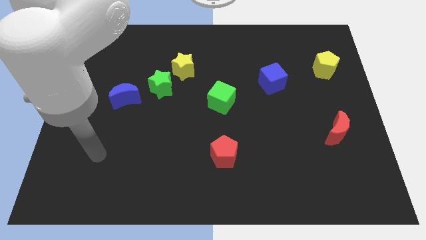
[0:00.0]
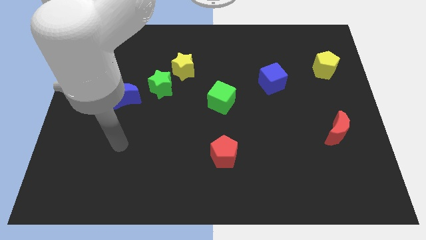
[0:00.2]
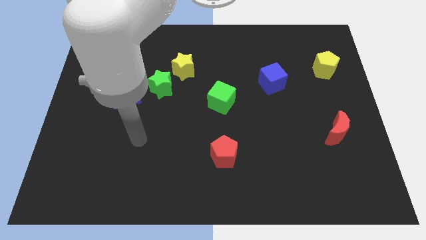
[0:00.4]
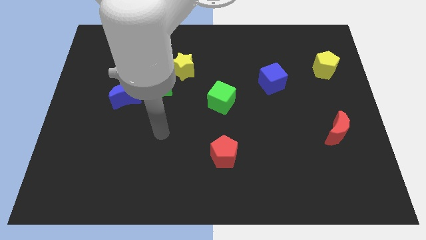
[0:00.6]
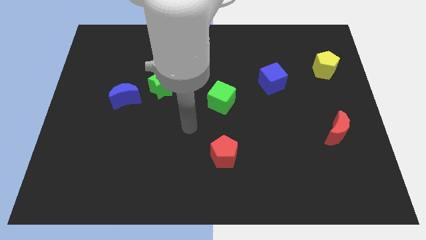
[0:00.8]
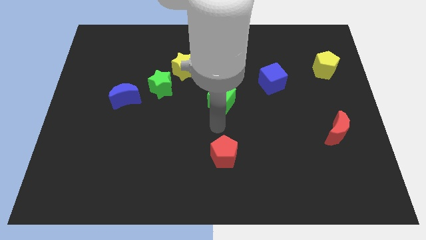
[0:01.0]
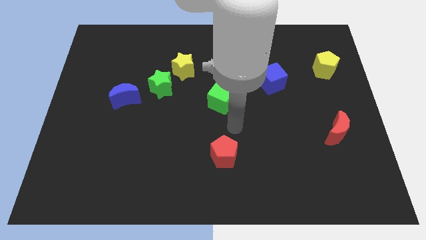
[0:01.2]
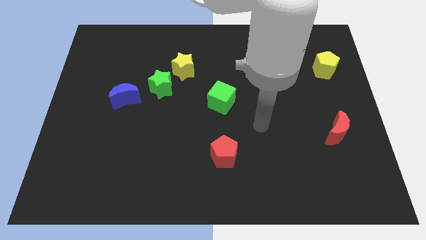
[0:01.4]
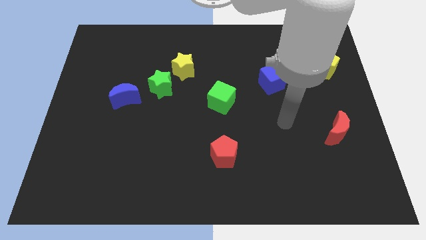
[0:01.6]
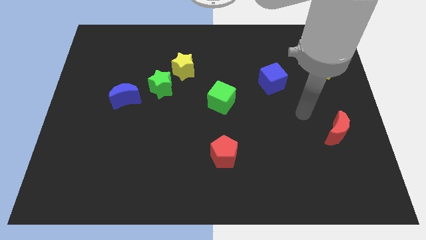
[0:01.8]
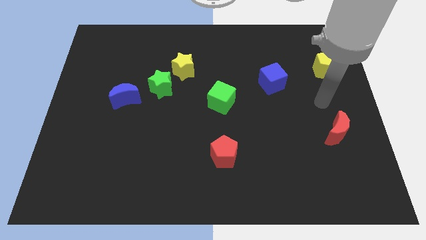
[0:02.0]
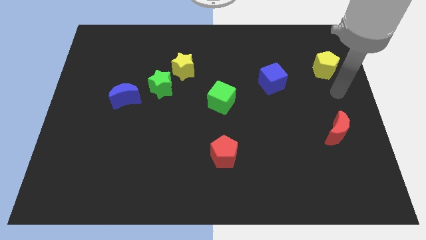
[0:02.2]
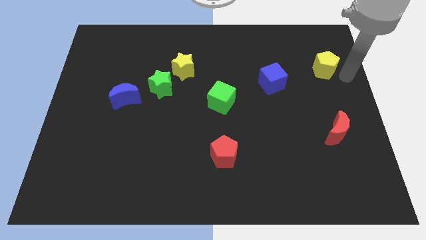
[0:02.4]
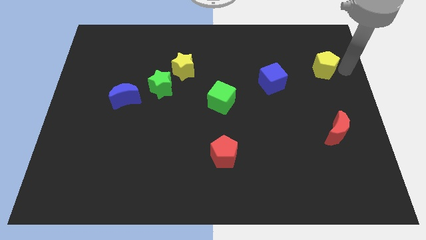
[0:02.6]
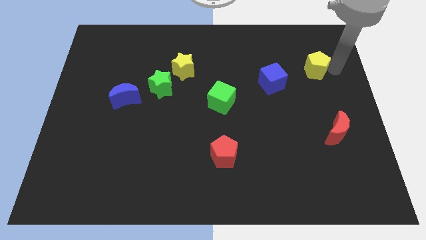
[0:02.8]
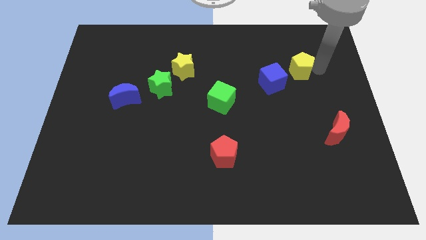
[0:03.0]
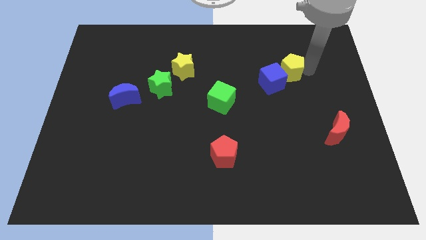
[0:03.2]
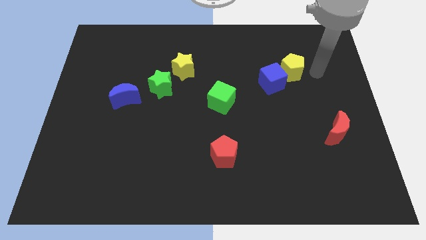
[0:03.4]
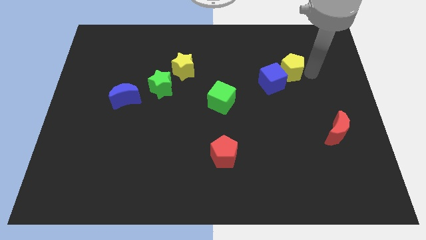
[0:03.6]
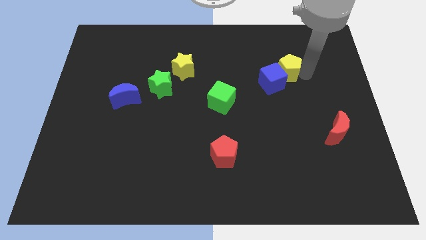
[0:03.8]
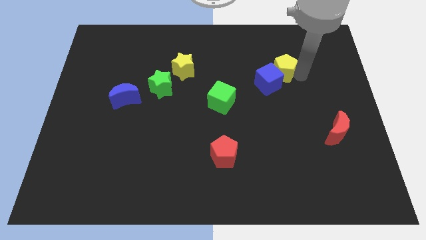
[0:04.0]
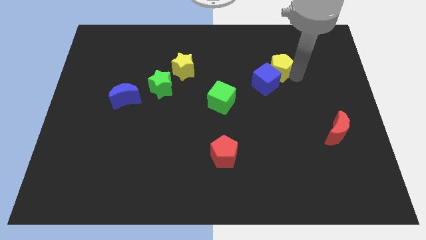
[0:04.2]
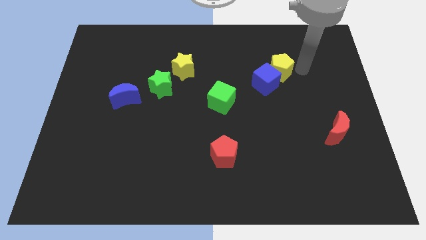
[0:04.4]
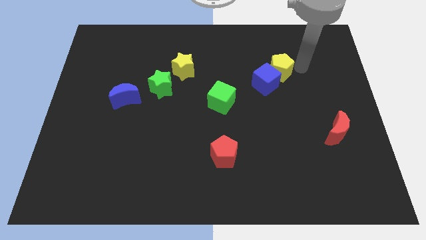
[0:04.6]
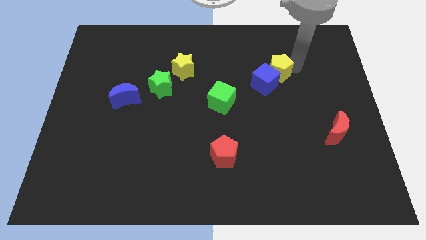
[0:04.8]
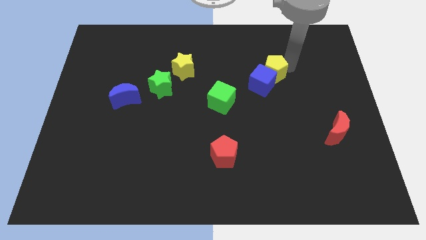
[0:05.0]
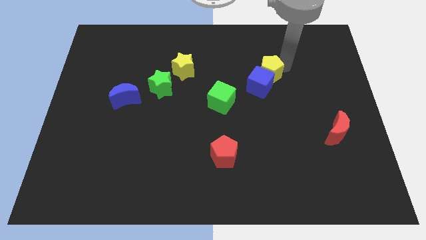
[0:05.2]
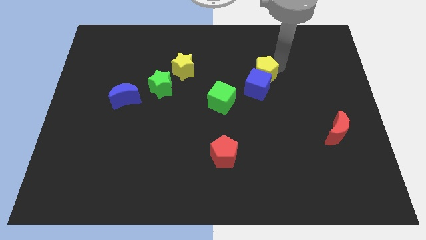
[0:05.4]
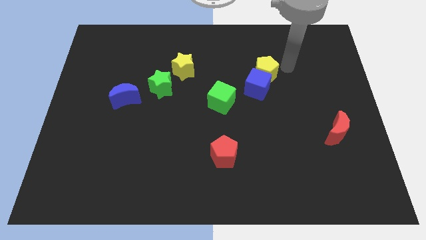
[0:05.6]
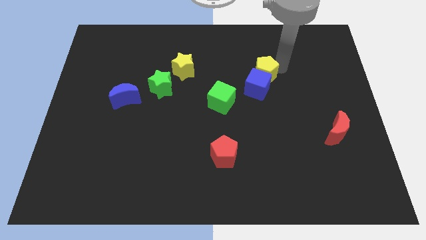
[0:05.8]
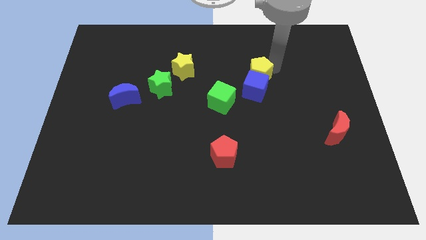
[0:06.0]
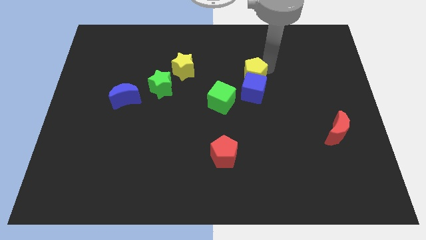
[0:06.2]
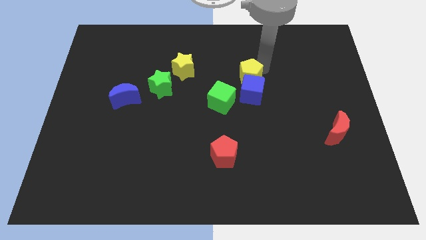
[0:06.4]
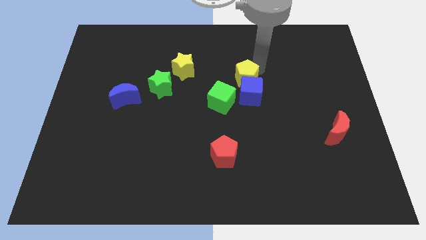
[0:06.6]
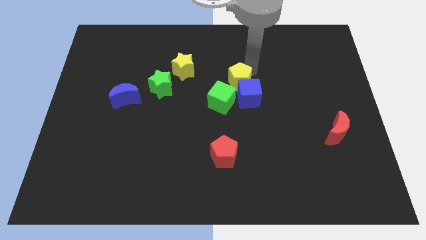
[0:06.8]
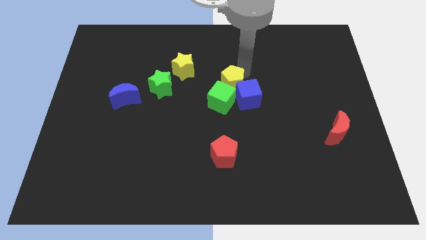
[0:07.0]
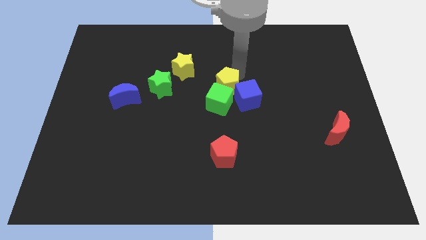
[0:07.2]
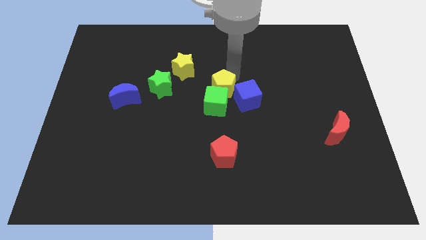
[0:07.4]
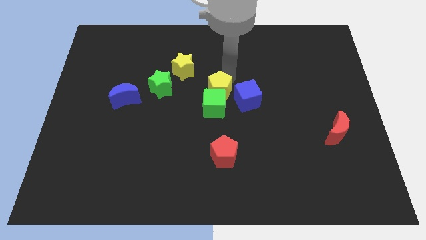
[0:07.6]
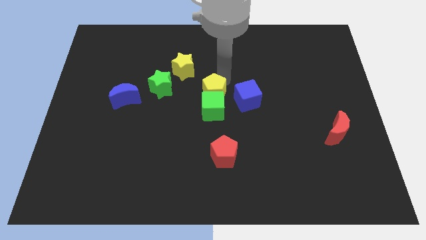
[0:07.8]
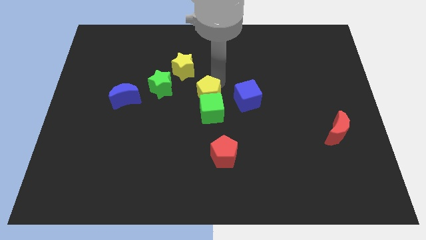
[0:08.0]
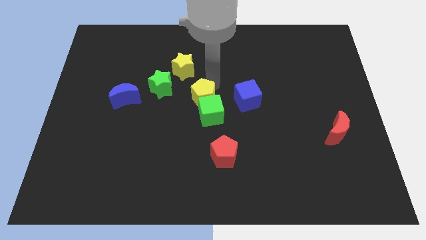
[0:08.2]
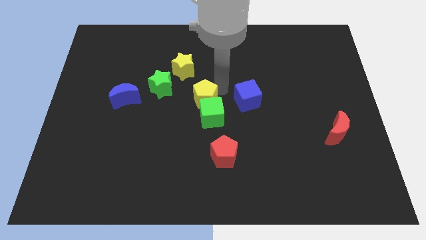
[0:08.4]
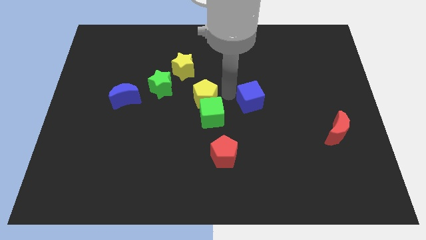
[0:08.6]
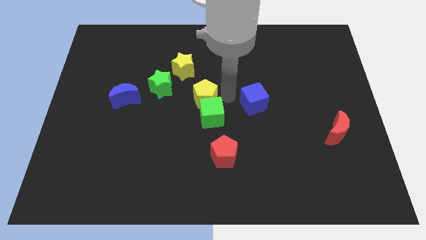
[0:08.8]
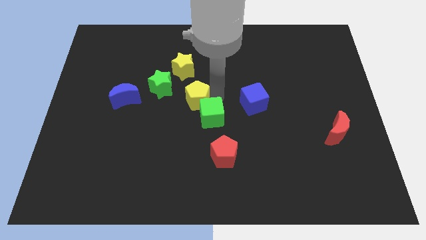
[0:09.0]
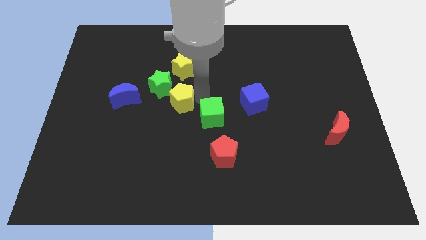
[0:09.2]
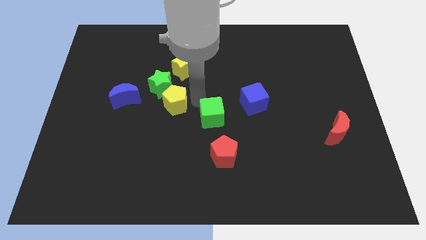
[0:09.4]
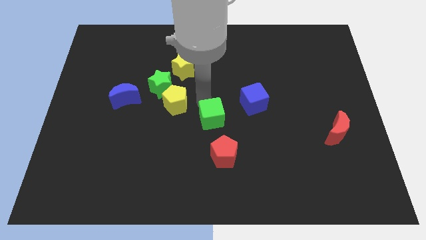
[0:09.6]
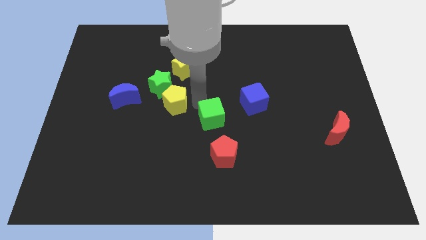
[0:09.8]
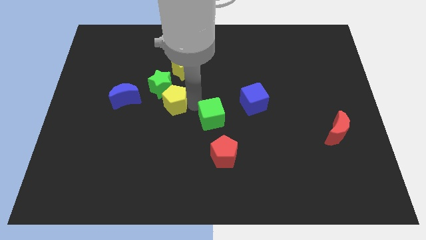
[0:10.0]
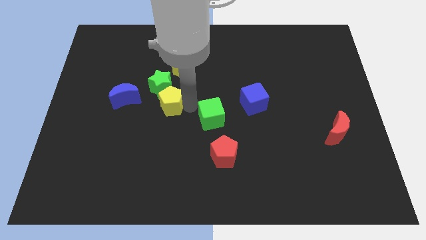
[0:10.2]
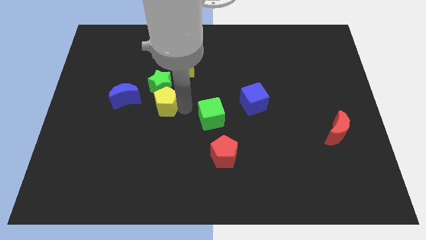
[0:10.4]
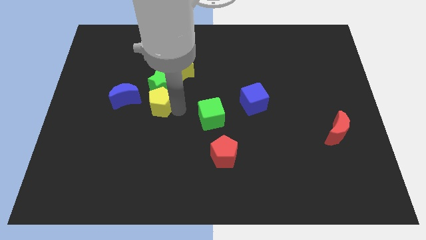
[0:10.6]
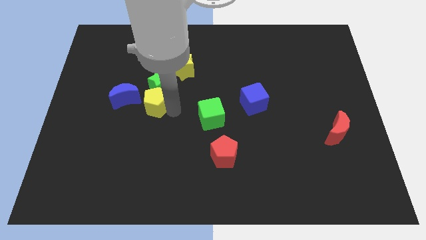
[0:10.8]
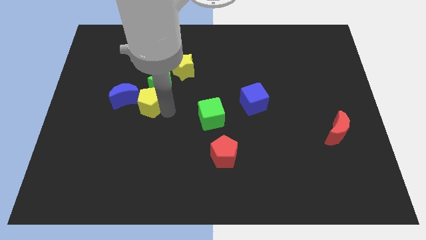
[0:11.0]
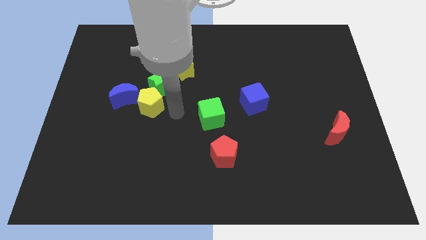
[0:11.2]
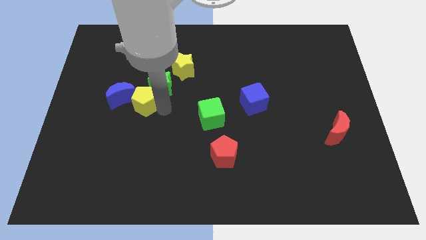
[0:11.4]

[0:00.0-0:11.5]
move the yellow pentagon close to the blue moon

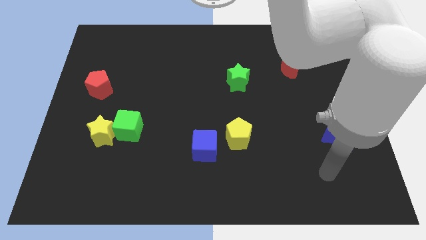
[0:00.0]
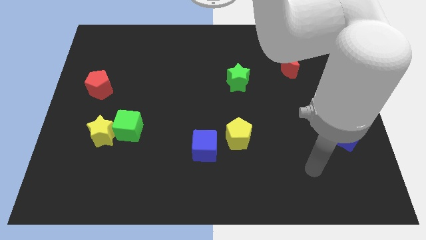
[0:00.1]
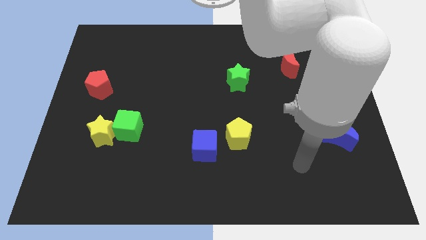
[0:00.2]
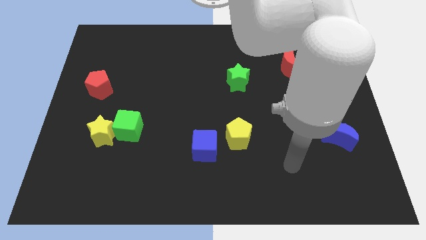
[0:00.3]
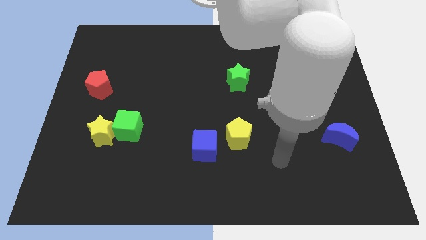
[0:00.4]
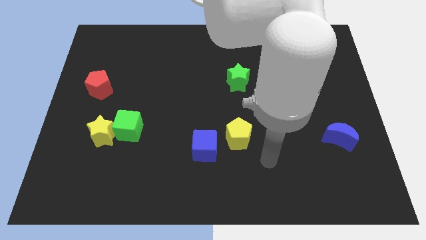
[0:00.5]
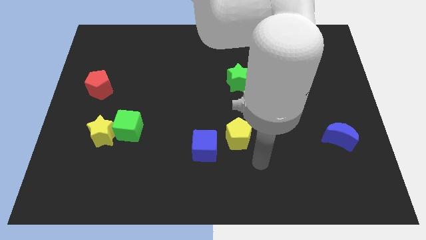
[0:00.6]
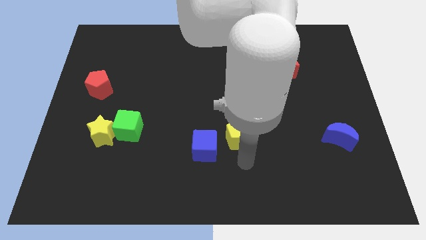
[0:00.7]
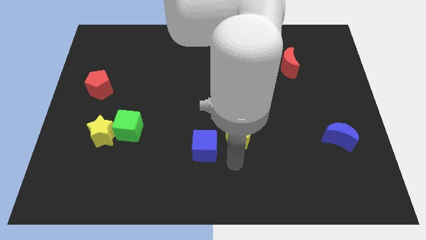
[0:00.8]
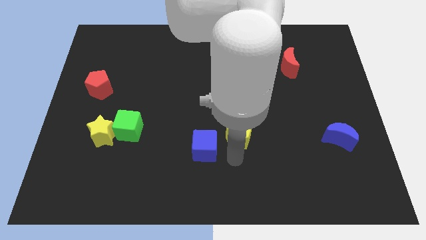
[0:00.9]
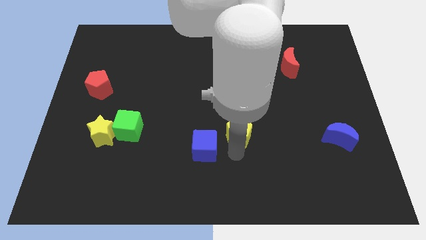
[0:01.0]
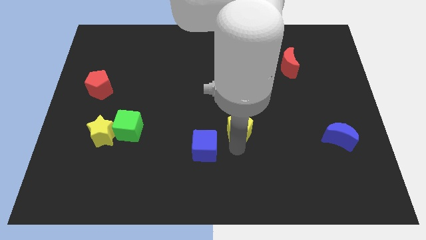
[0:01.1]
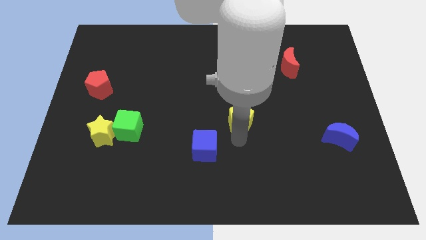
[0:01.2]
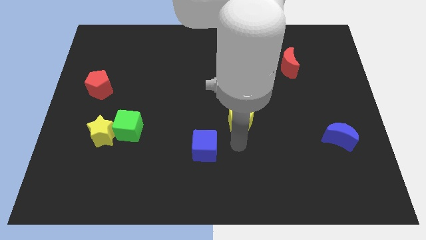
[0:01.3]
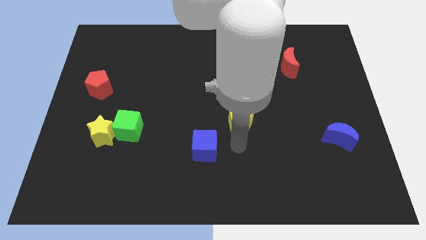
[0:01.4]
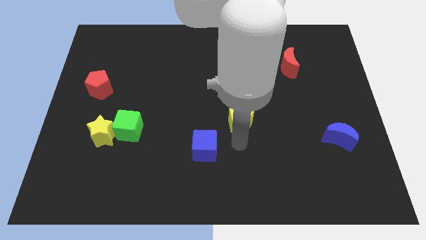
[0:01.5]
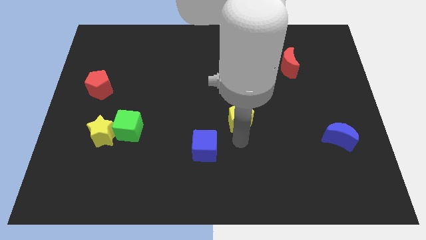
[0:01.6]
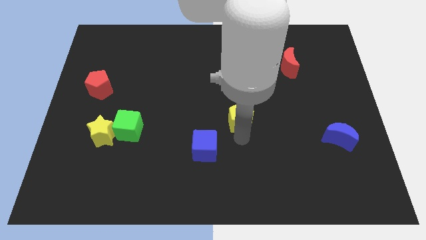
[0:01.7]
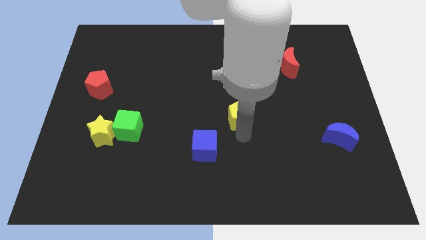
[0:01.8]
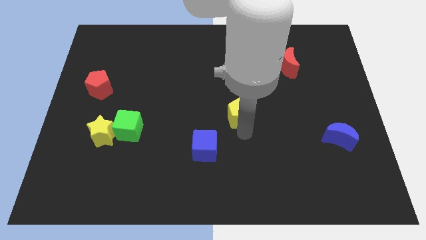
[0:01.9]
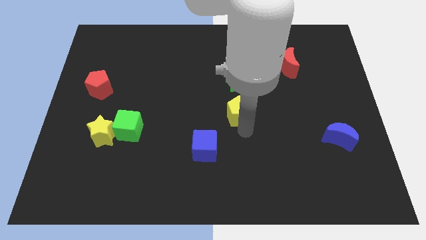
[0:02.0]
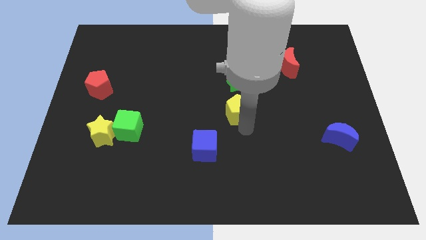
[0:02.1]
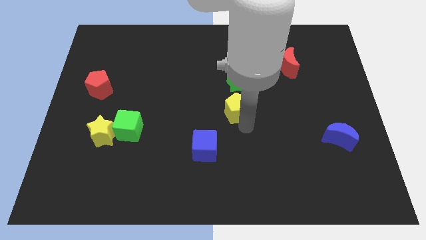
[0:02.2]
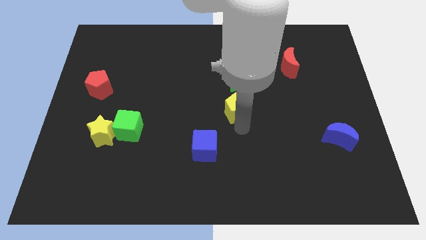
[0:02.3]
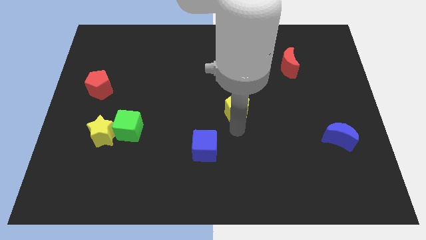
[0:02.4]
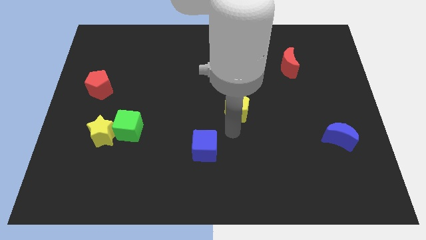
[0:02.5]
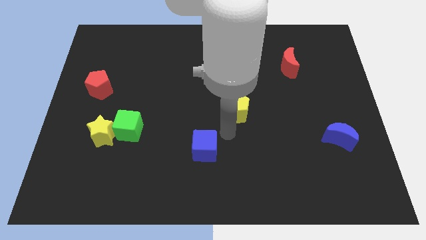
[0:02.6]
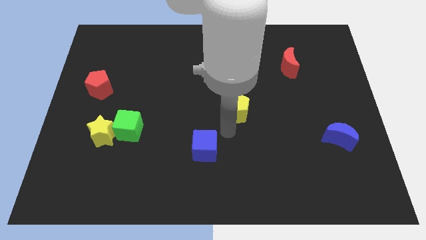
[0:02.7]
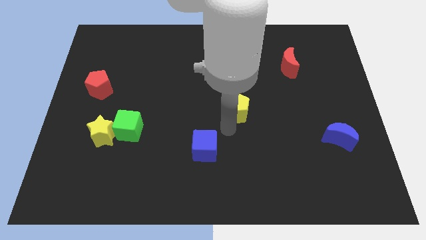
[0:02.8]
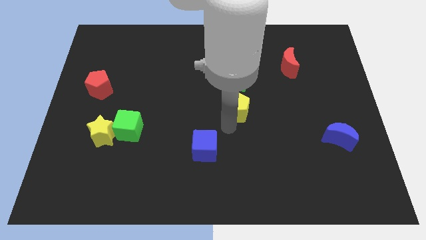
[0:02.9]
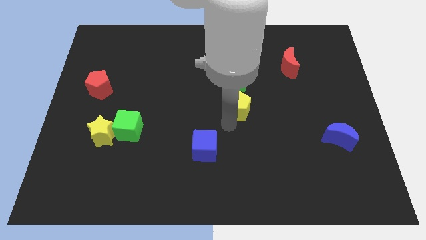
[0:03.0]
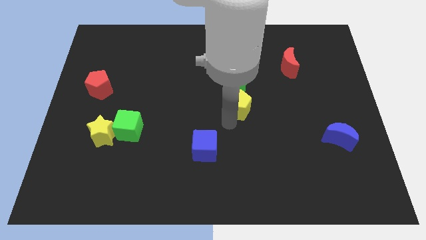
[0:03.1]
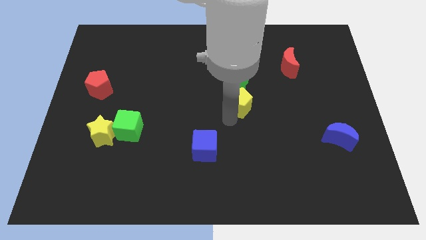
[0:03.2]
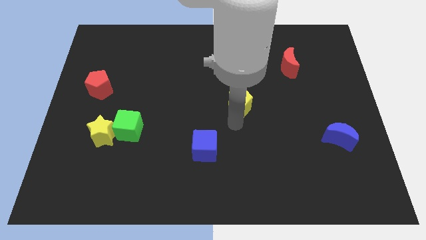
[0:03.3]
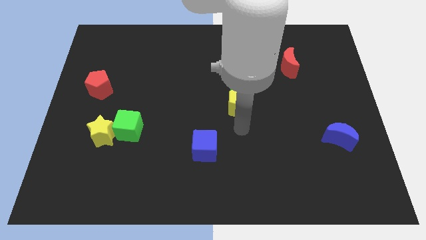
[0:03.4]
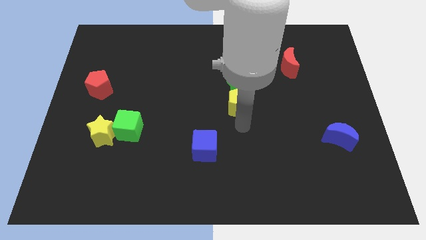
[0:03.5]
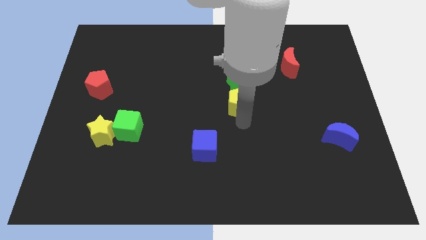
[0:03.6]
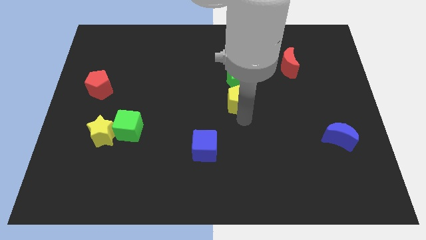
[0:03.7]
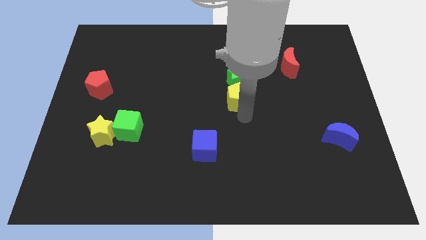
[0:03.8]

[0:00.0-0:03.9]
move the yellow pentagon close to the green star
